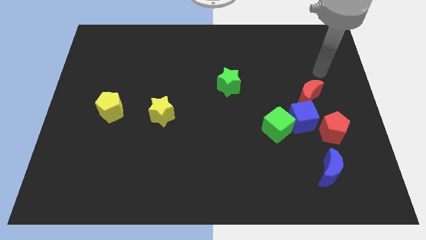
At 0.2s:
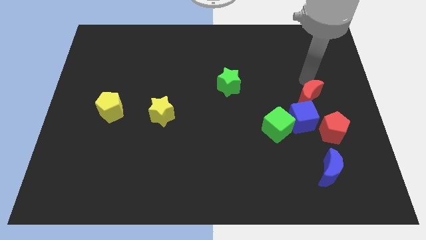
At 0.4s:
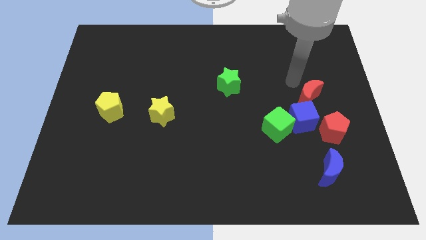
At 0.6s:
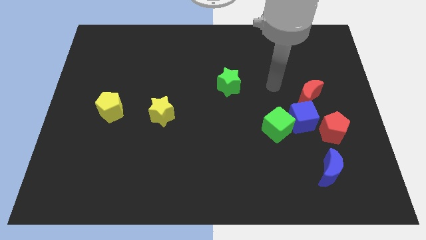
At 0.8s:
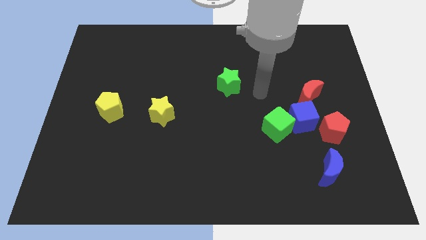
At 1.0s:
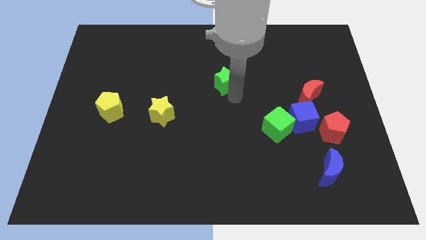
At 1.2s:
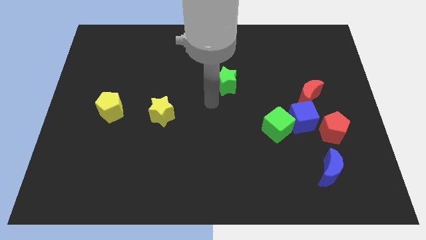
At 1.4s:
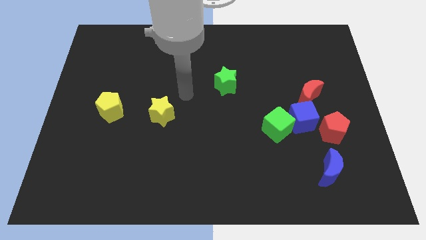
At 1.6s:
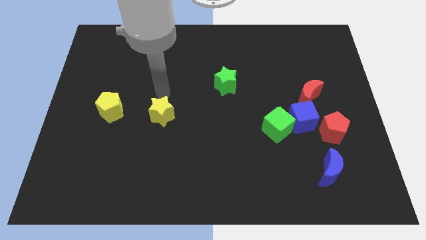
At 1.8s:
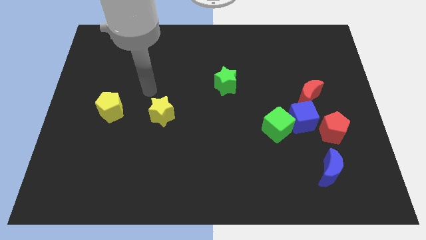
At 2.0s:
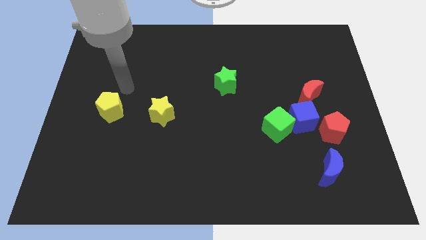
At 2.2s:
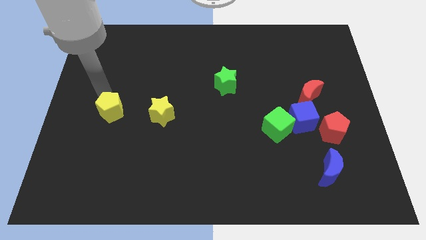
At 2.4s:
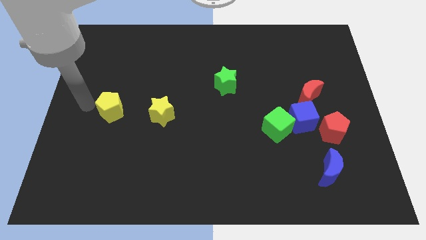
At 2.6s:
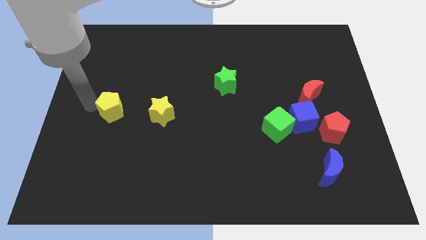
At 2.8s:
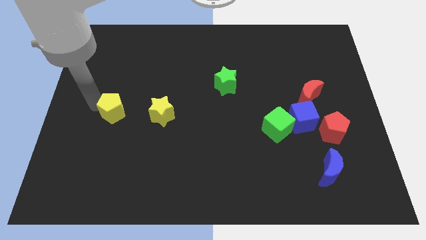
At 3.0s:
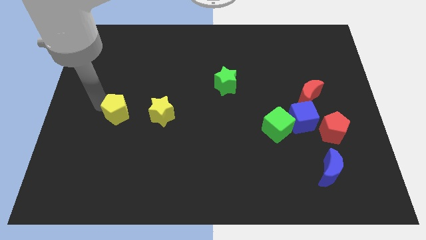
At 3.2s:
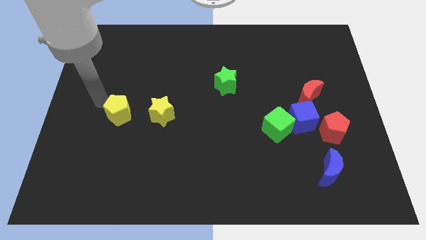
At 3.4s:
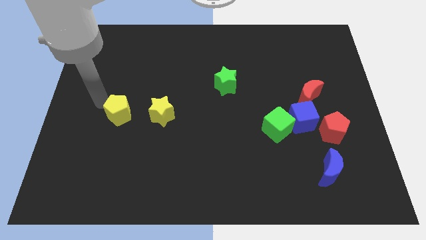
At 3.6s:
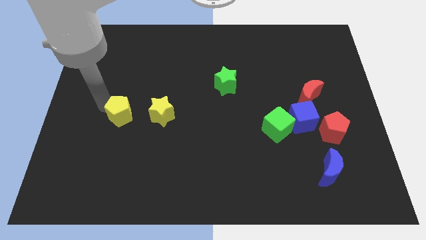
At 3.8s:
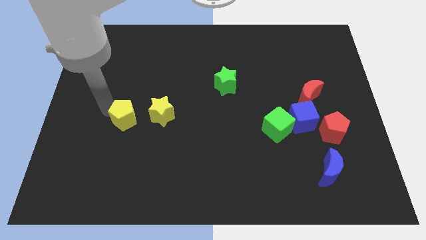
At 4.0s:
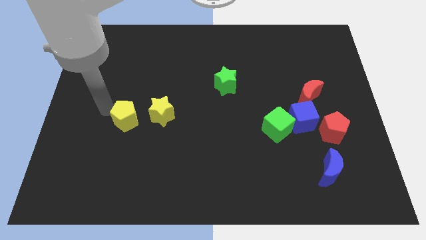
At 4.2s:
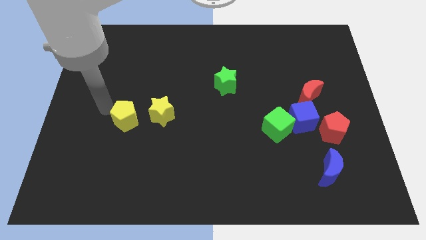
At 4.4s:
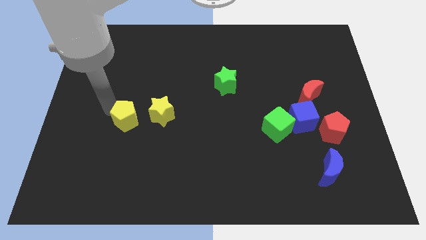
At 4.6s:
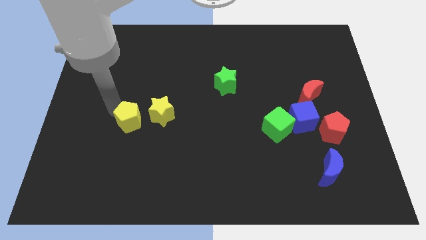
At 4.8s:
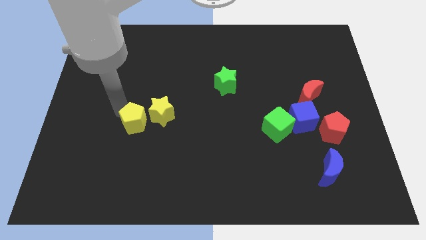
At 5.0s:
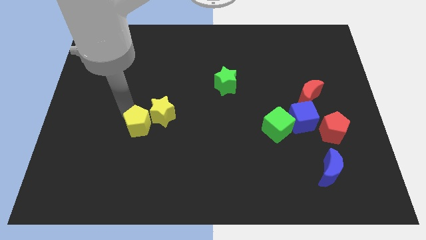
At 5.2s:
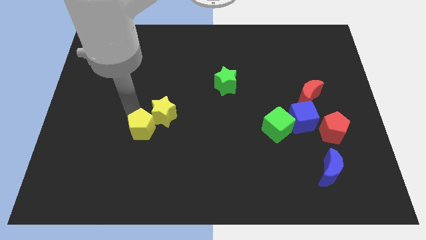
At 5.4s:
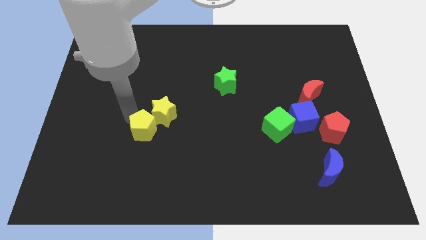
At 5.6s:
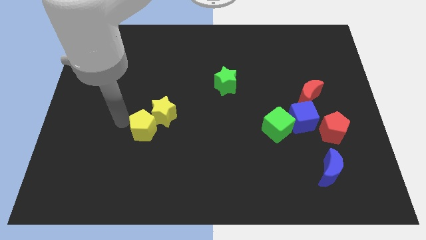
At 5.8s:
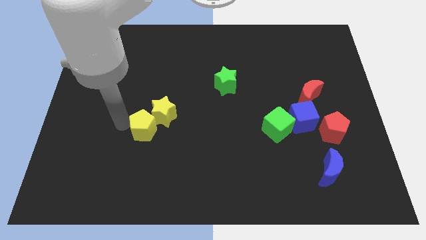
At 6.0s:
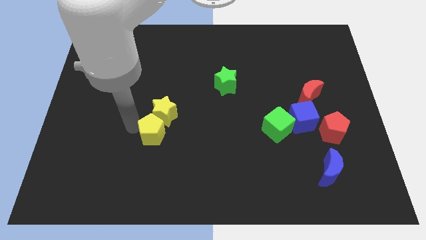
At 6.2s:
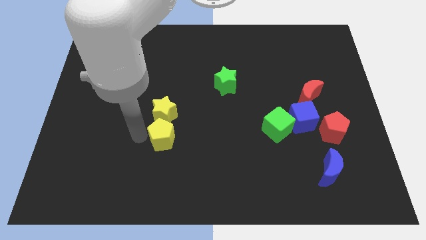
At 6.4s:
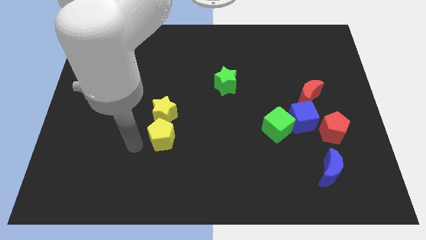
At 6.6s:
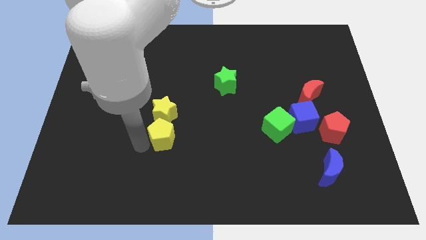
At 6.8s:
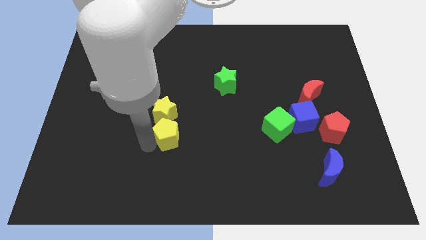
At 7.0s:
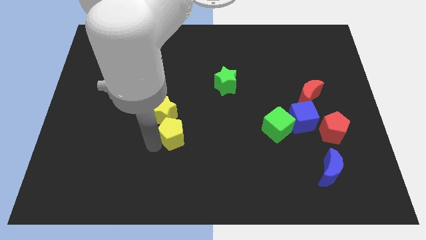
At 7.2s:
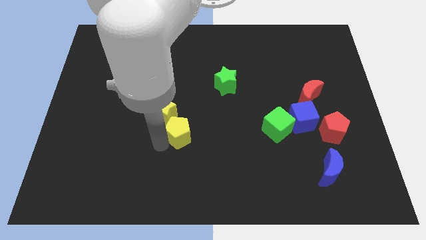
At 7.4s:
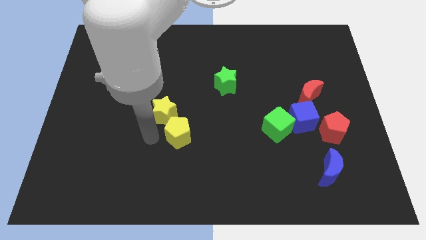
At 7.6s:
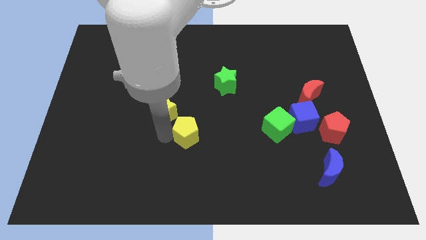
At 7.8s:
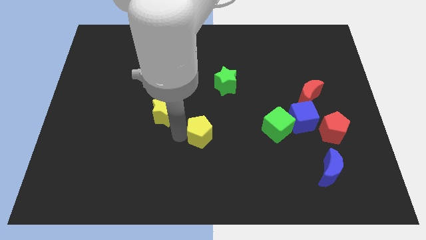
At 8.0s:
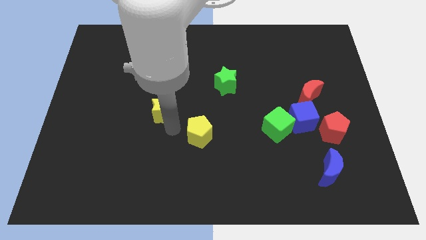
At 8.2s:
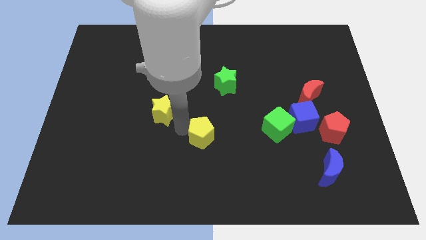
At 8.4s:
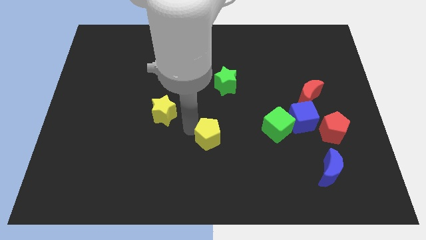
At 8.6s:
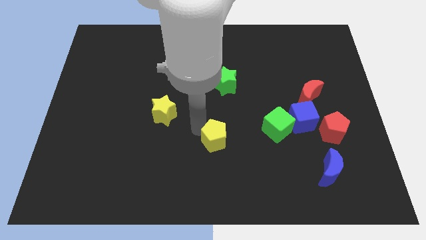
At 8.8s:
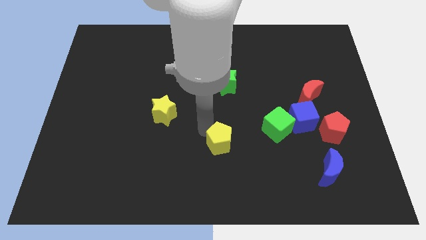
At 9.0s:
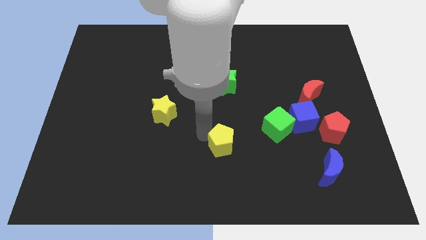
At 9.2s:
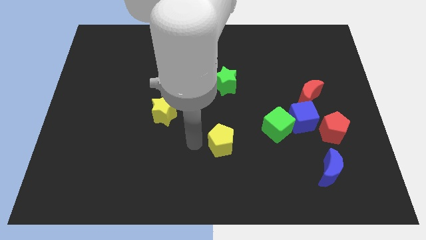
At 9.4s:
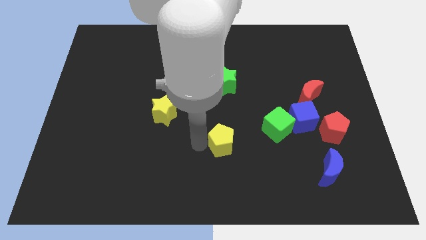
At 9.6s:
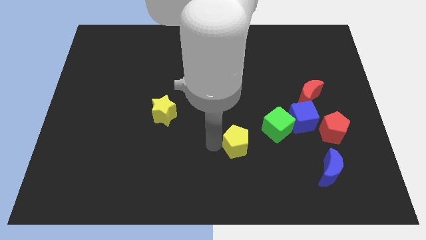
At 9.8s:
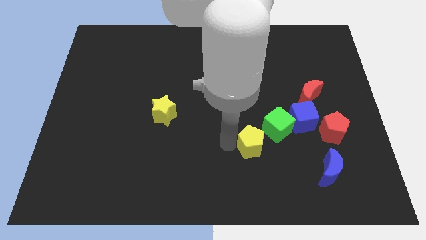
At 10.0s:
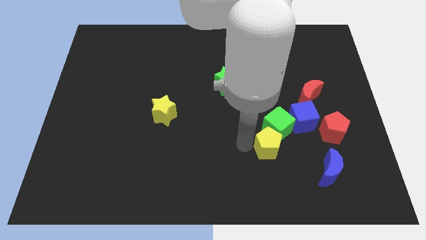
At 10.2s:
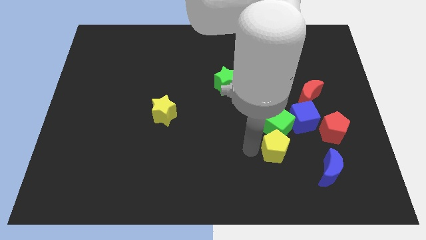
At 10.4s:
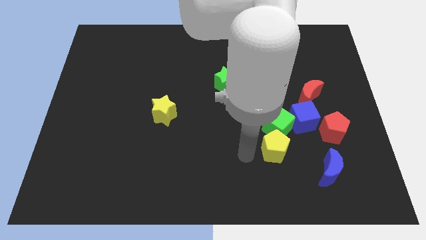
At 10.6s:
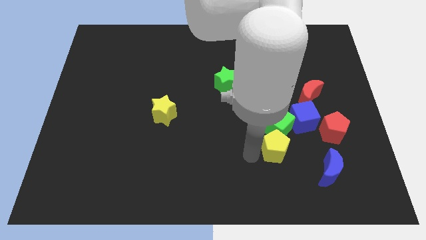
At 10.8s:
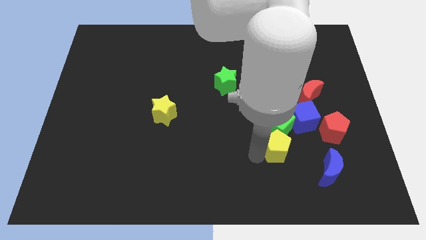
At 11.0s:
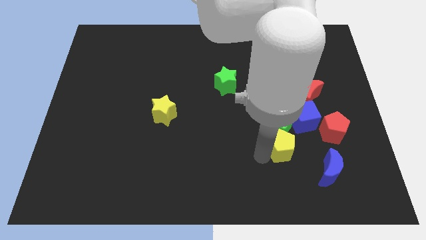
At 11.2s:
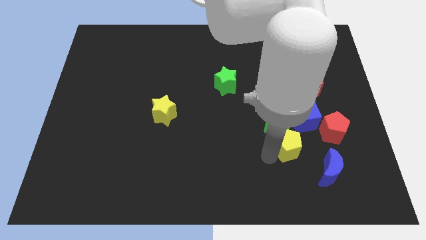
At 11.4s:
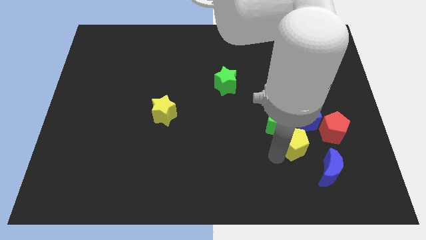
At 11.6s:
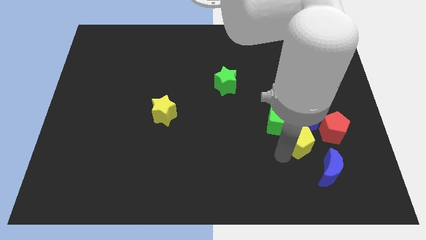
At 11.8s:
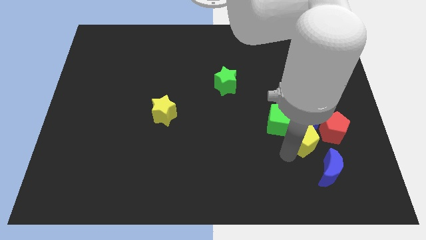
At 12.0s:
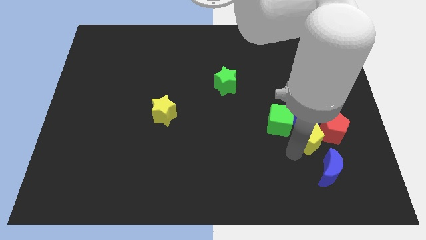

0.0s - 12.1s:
slide the yellow pentagon to the red pentagon

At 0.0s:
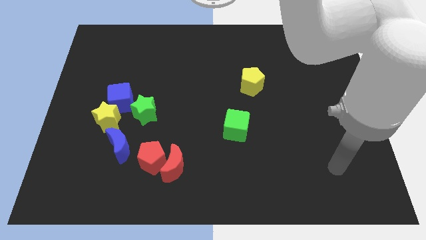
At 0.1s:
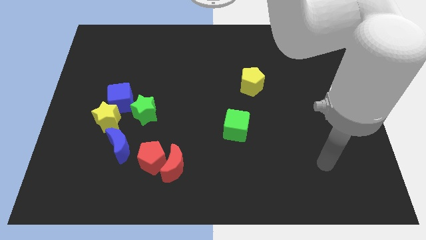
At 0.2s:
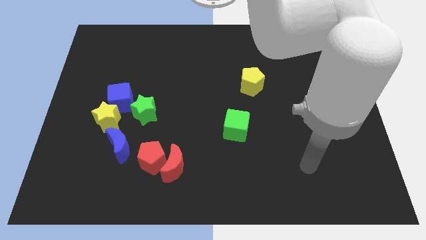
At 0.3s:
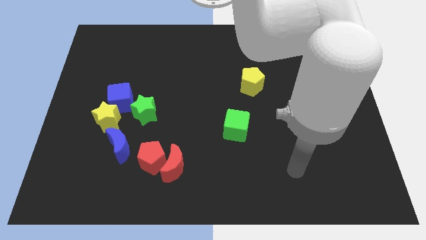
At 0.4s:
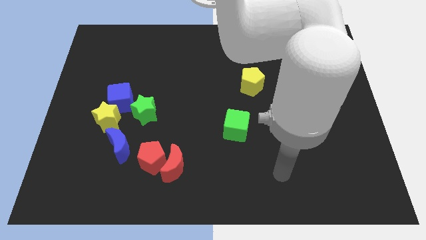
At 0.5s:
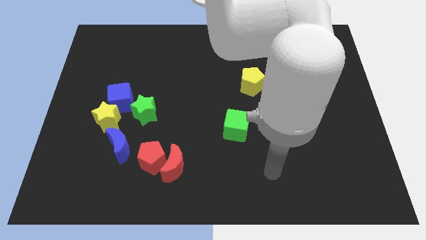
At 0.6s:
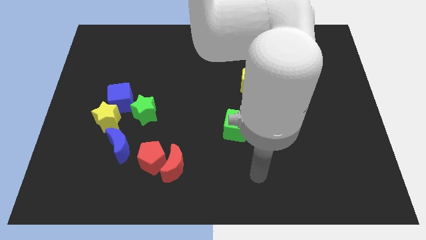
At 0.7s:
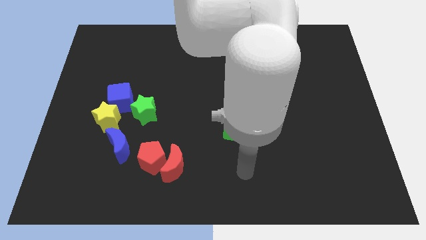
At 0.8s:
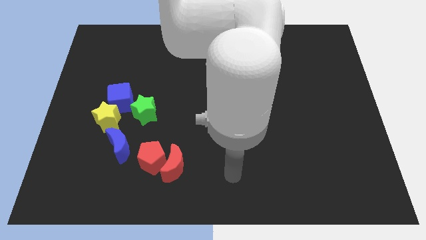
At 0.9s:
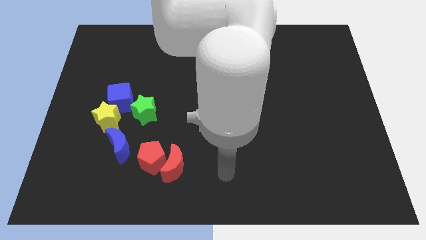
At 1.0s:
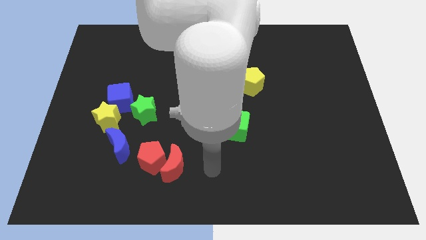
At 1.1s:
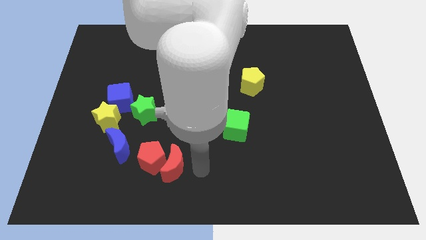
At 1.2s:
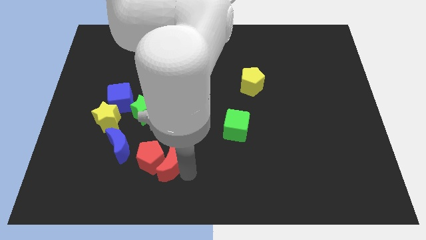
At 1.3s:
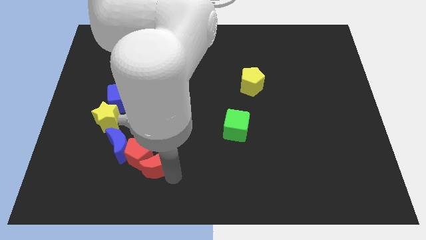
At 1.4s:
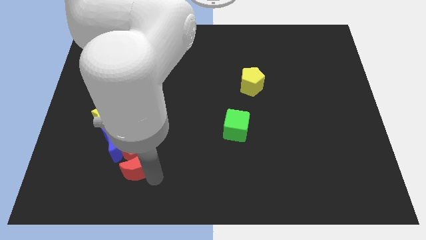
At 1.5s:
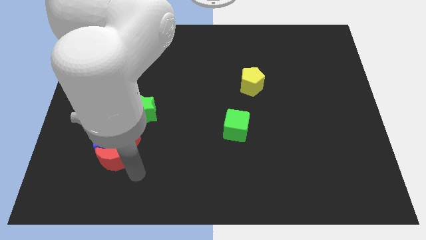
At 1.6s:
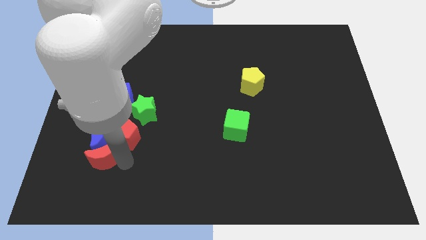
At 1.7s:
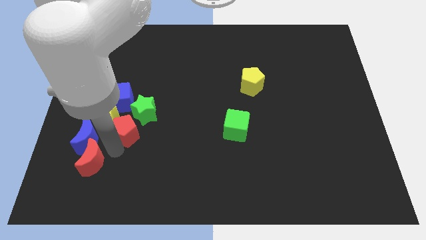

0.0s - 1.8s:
move the red pentagon to the yellow star

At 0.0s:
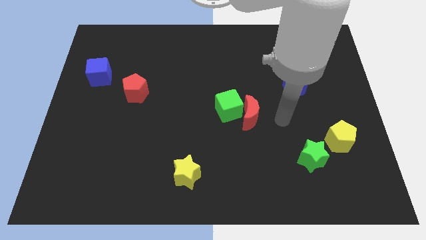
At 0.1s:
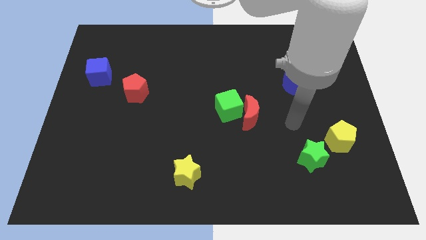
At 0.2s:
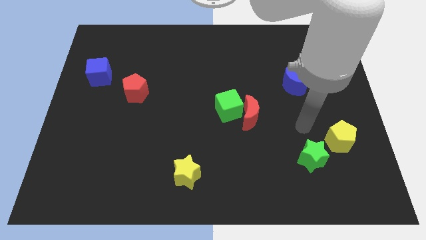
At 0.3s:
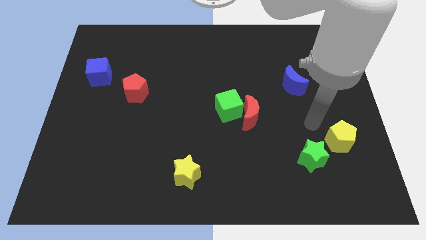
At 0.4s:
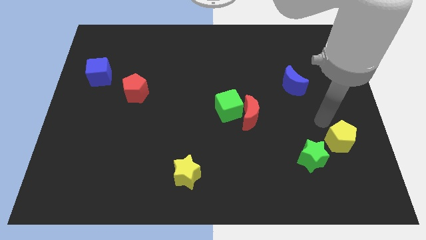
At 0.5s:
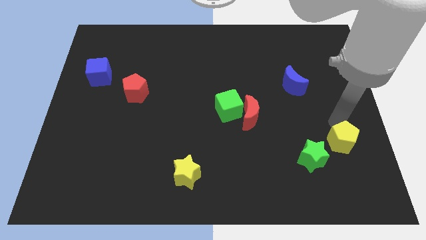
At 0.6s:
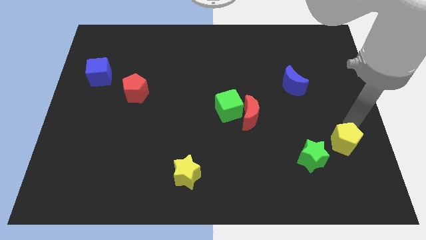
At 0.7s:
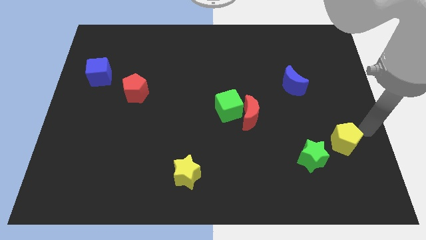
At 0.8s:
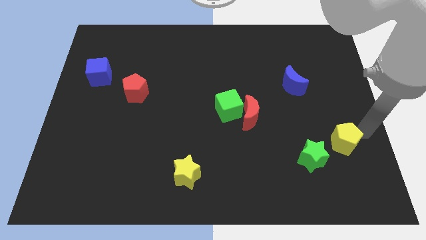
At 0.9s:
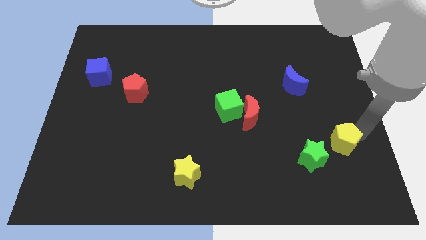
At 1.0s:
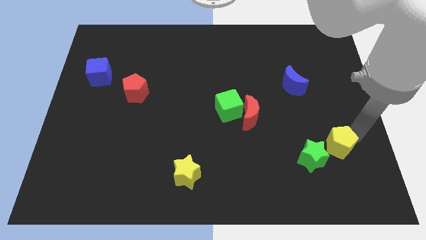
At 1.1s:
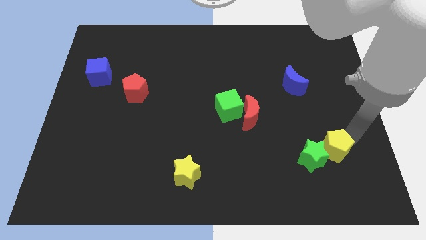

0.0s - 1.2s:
move the yellow pentagon to the green star
